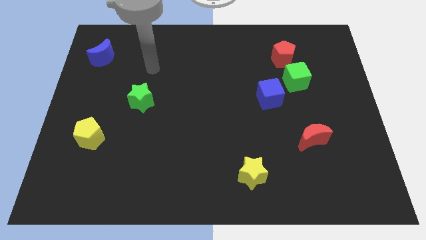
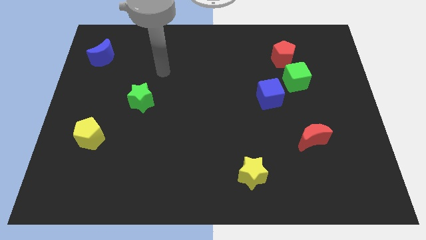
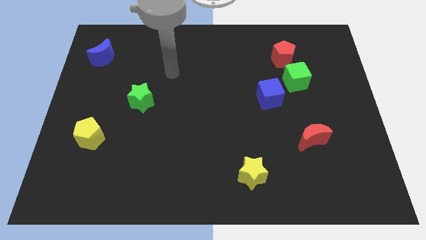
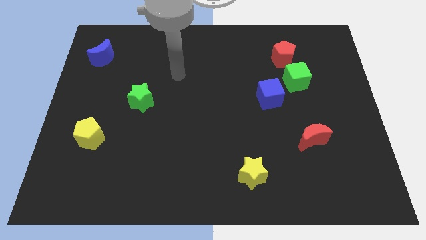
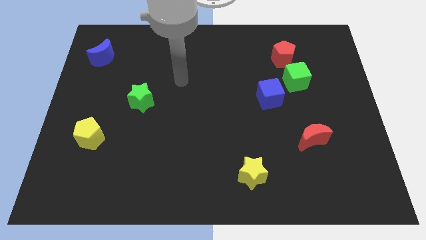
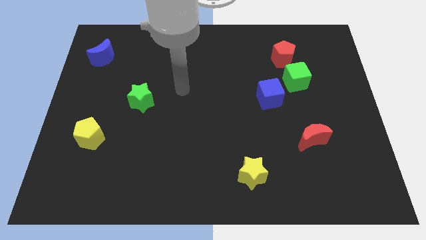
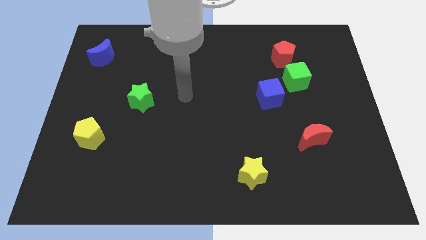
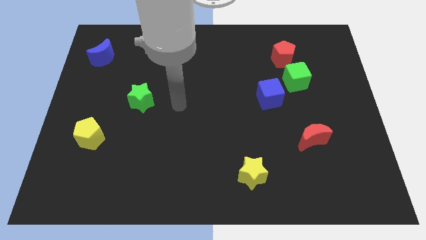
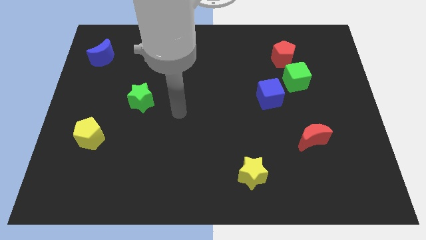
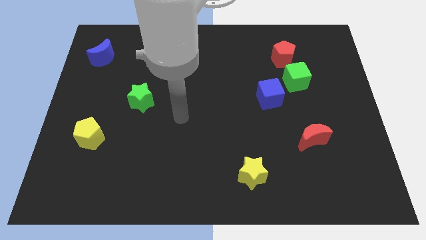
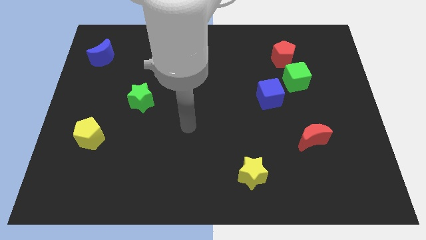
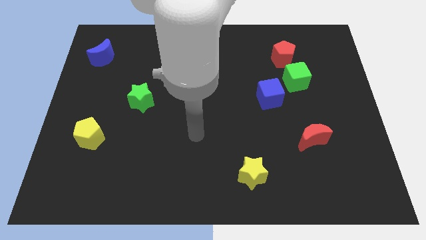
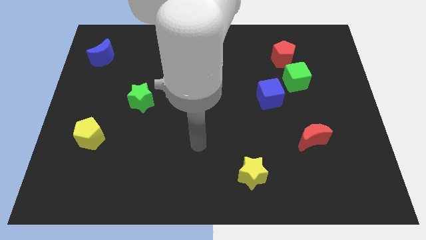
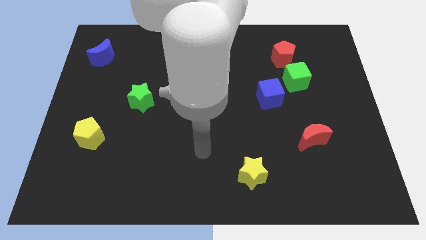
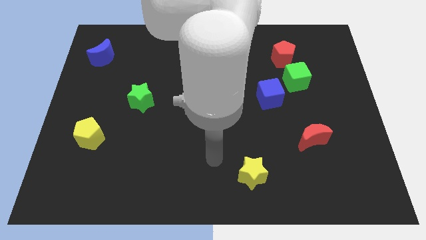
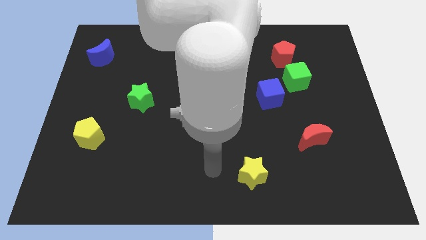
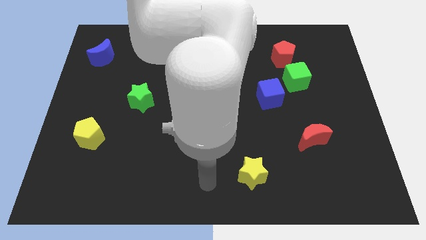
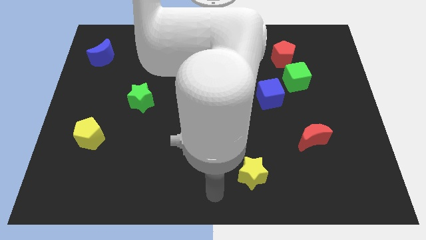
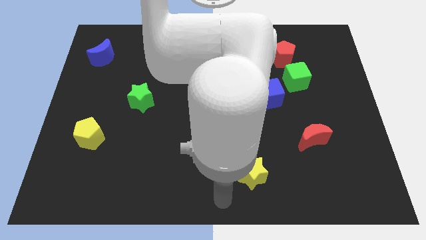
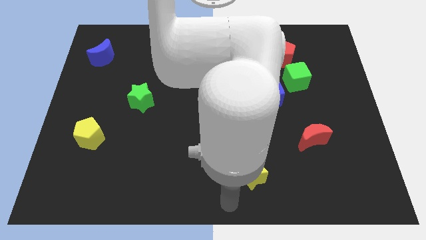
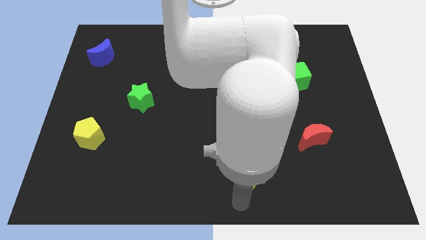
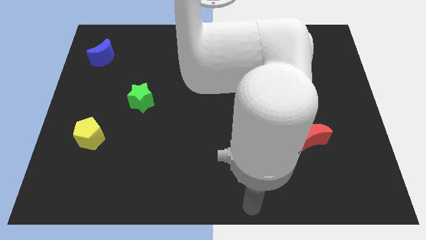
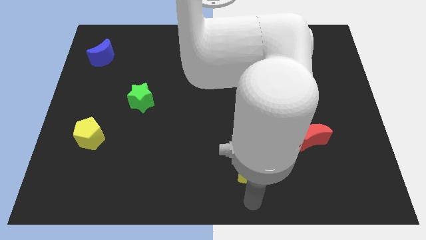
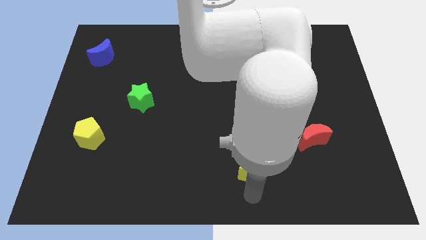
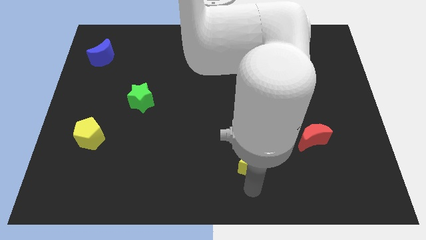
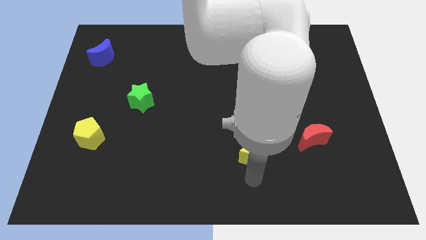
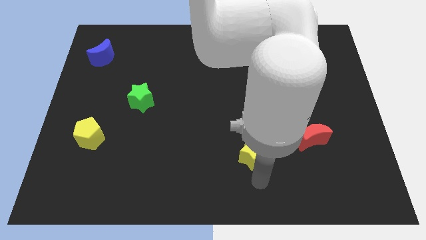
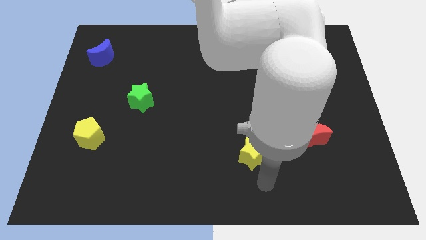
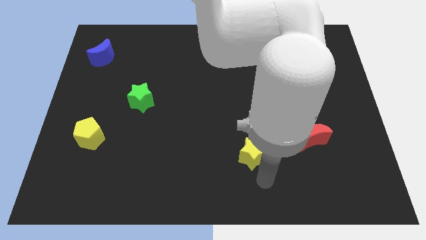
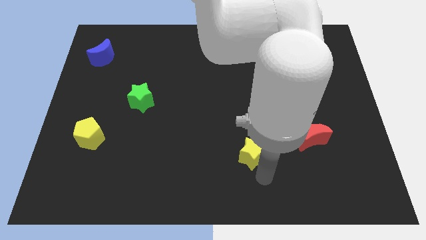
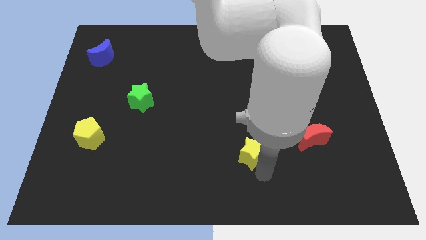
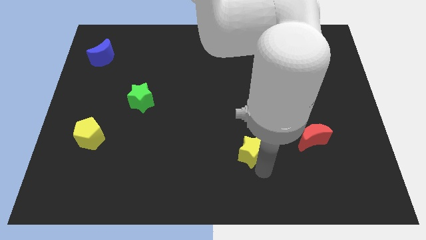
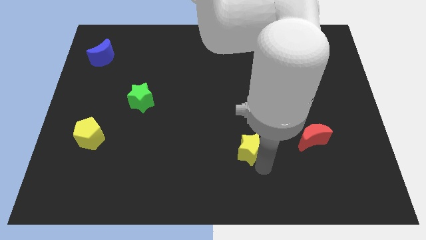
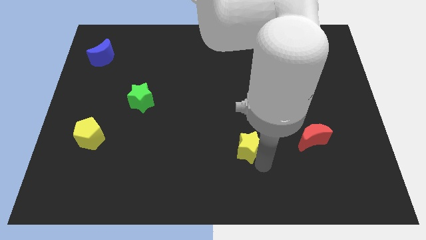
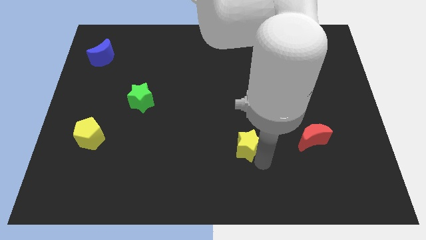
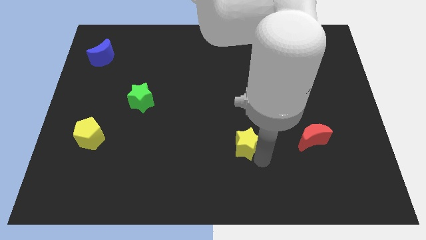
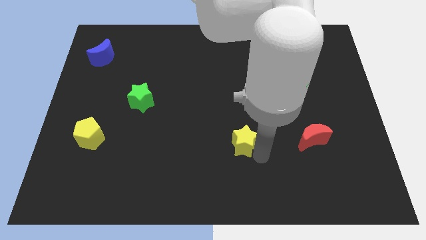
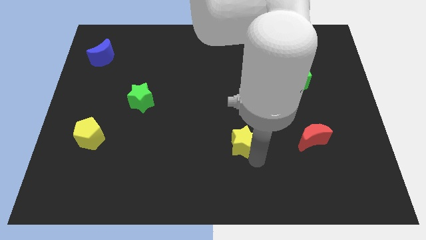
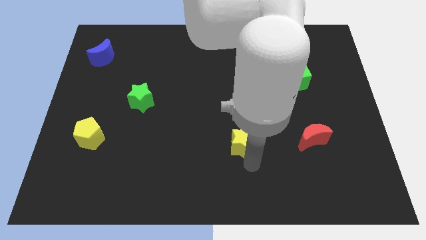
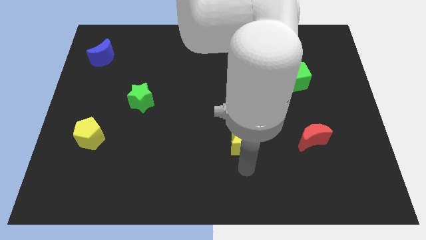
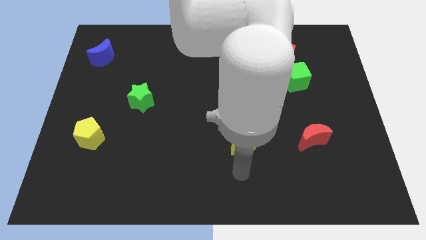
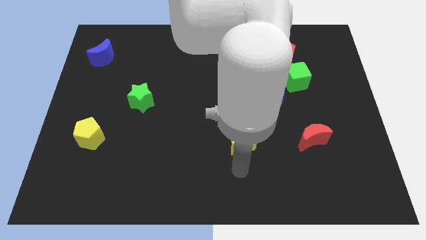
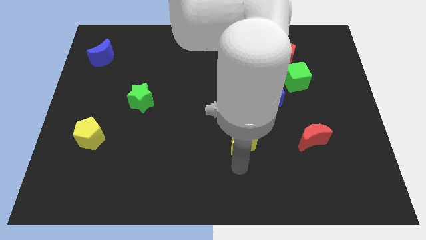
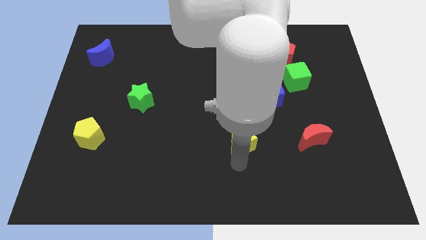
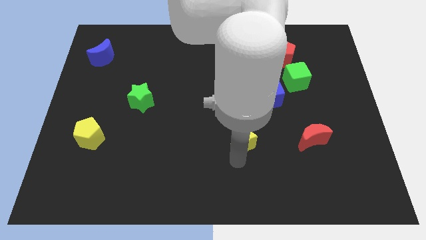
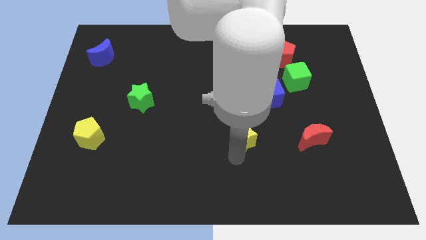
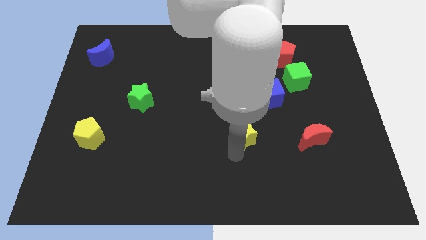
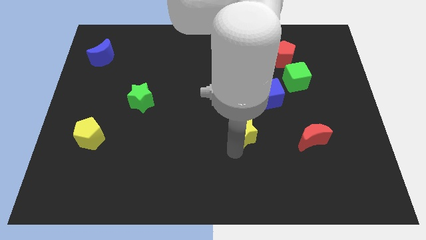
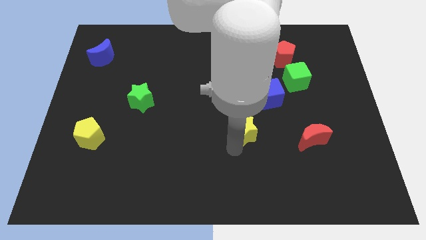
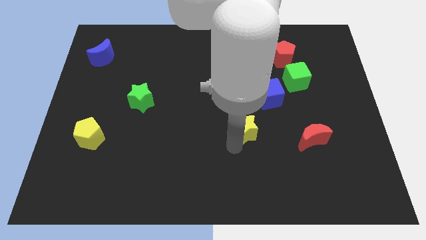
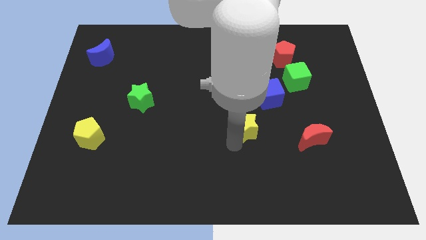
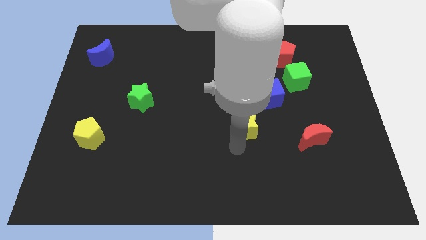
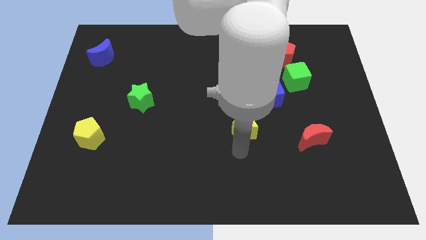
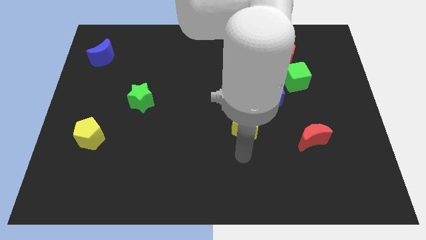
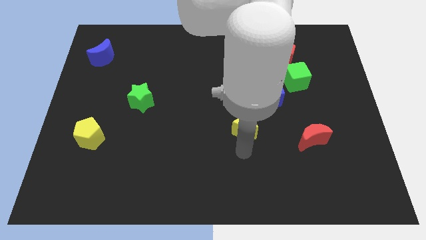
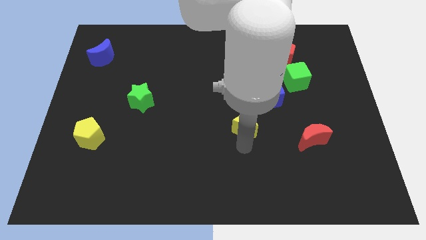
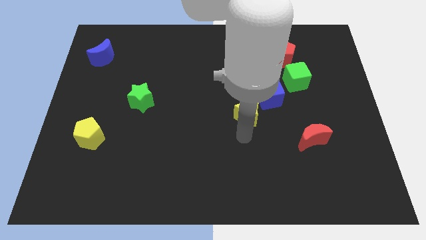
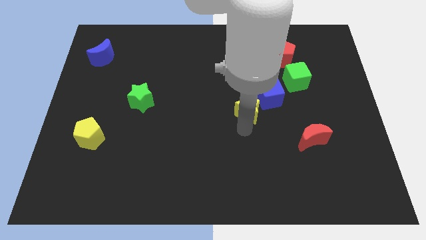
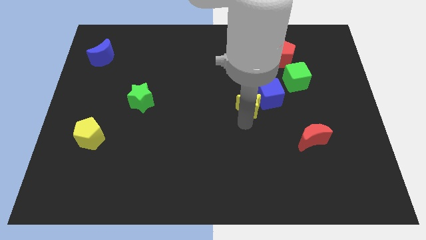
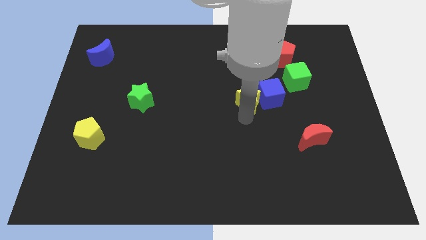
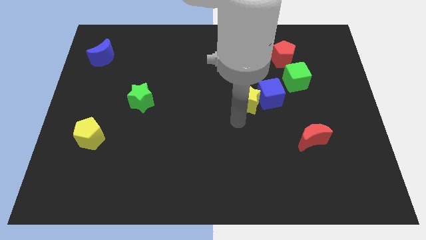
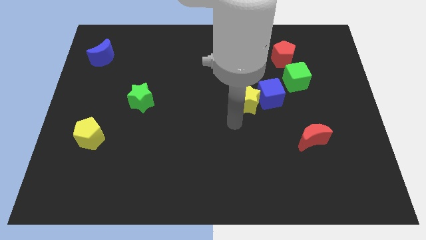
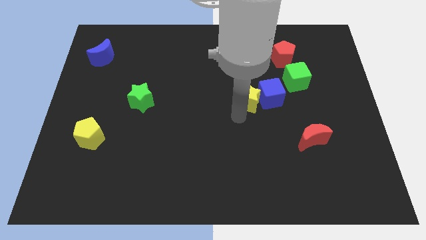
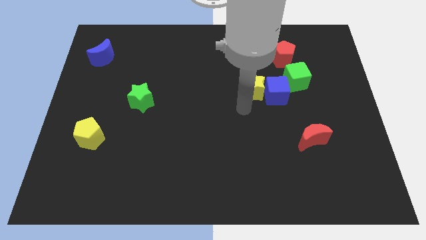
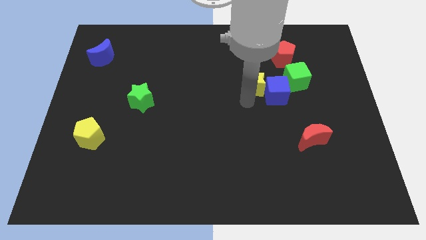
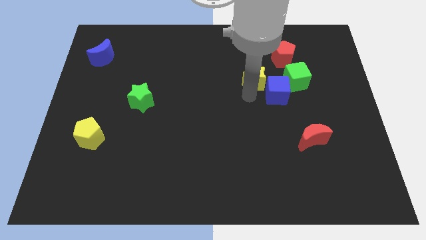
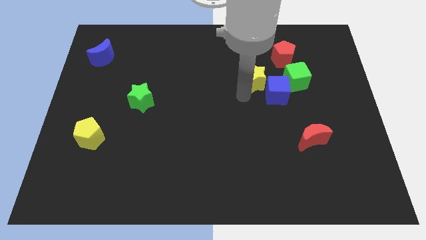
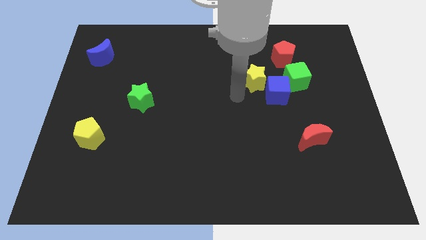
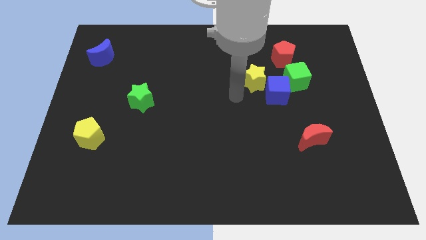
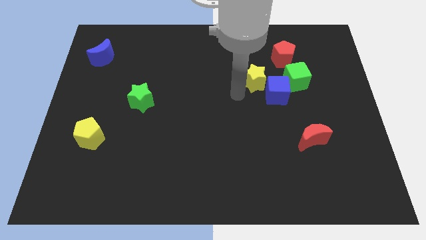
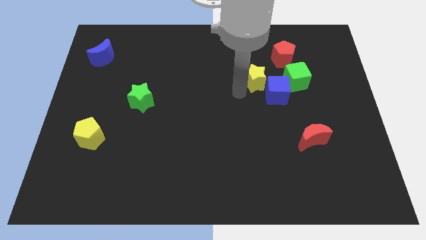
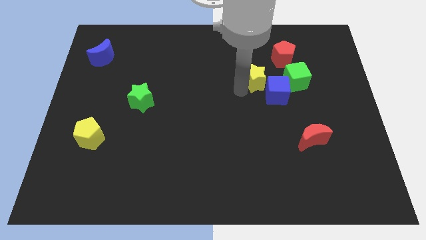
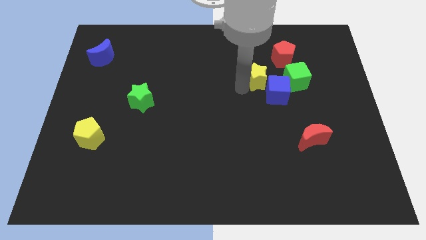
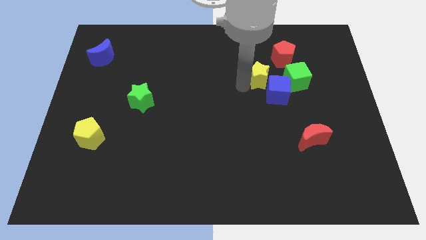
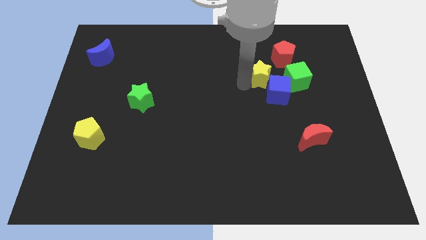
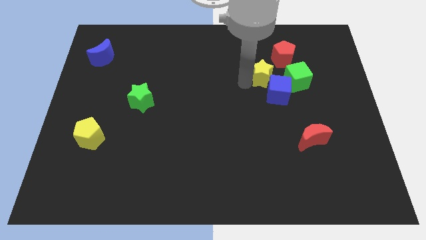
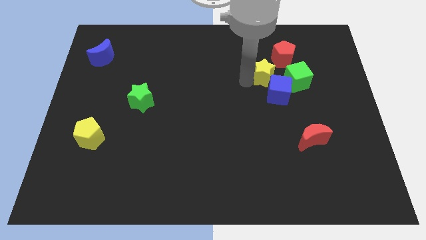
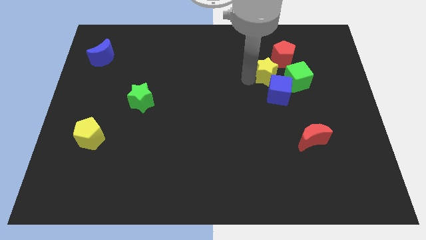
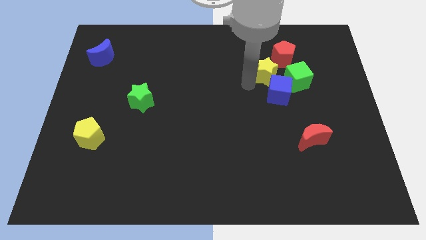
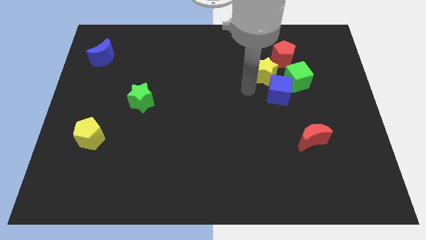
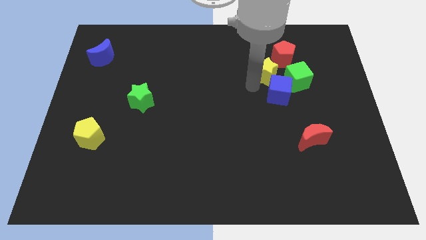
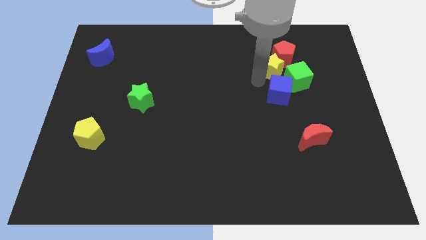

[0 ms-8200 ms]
slide the yellow star next to the red pentagon
